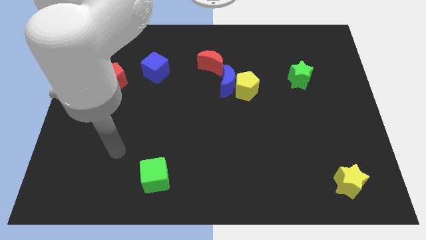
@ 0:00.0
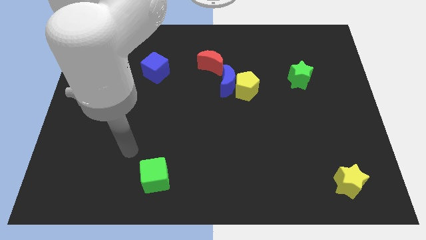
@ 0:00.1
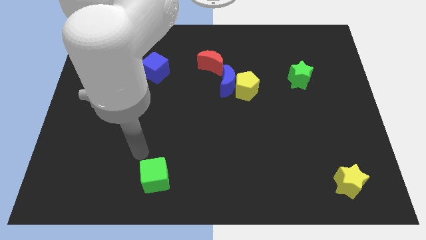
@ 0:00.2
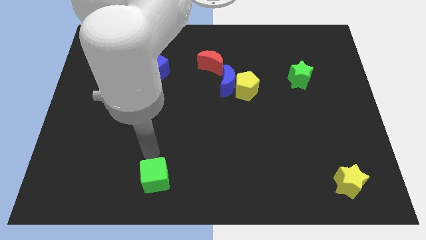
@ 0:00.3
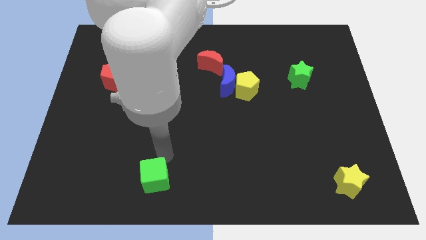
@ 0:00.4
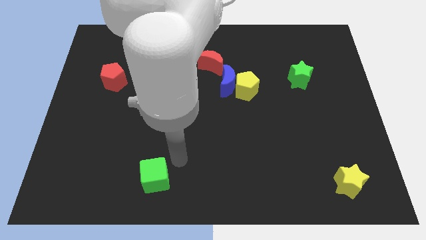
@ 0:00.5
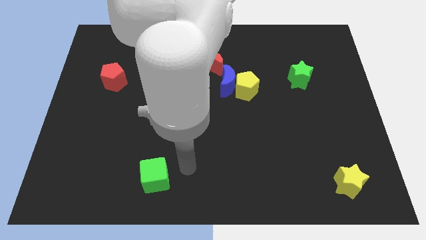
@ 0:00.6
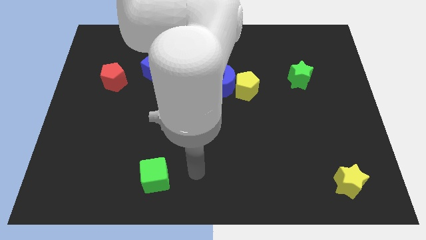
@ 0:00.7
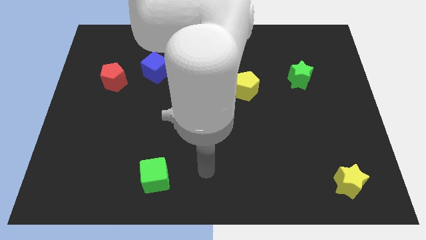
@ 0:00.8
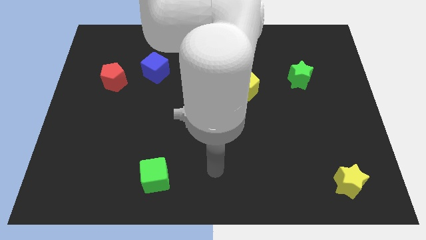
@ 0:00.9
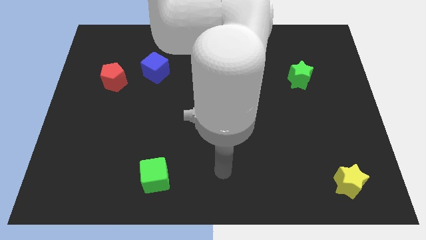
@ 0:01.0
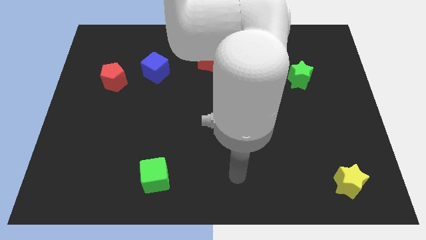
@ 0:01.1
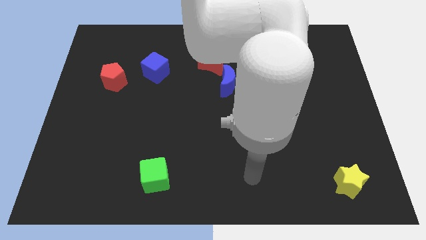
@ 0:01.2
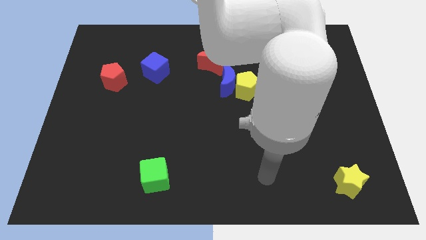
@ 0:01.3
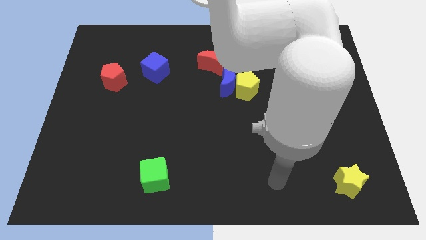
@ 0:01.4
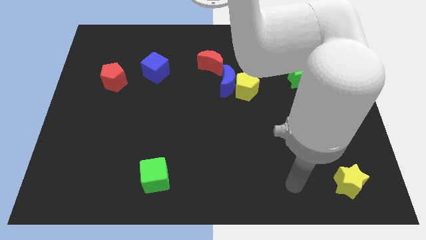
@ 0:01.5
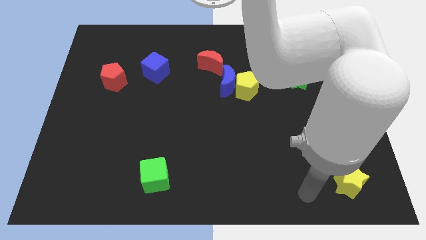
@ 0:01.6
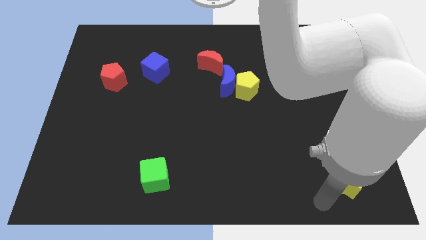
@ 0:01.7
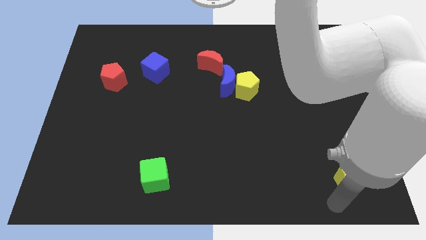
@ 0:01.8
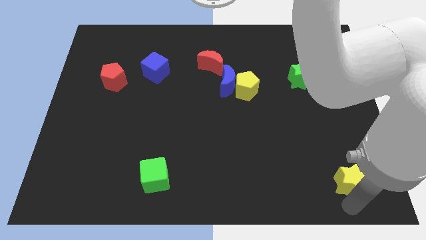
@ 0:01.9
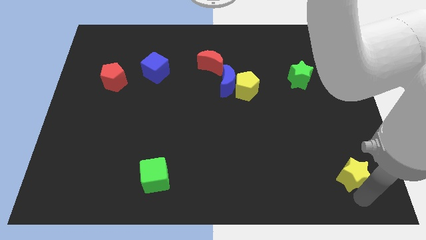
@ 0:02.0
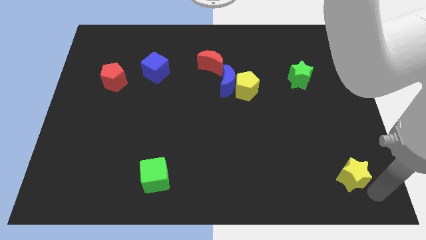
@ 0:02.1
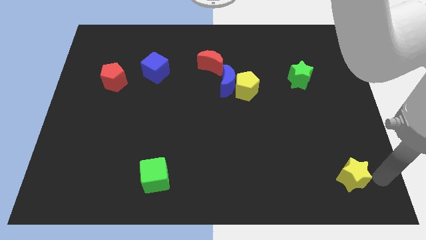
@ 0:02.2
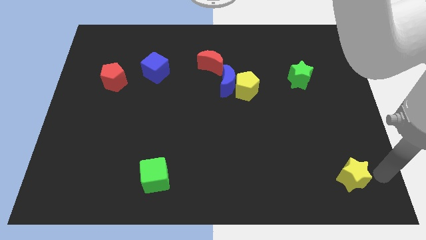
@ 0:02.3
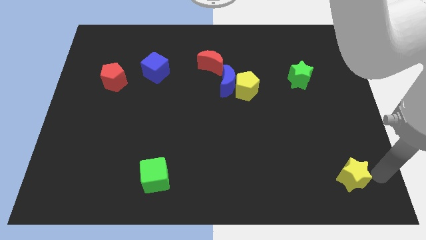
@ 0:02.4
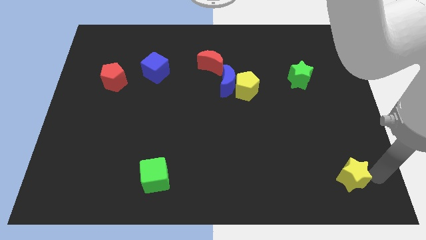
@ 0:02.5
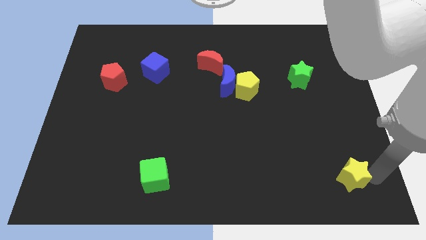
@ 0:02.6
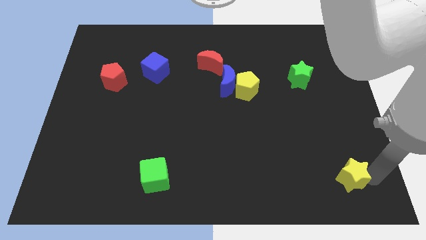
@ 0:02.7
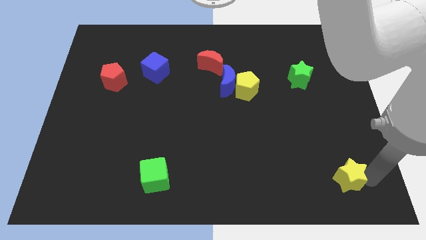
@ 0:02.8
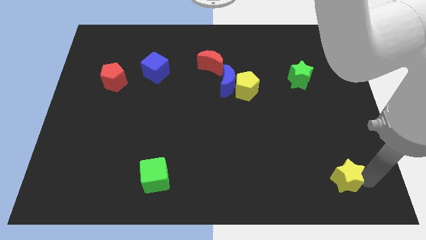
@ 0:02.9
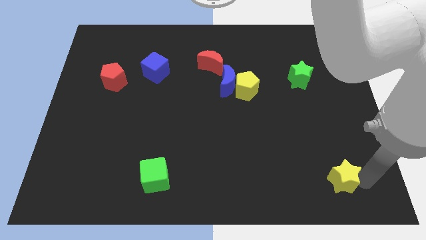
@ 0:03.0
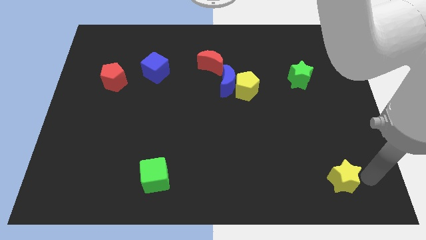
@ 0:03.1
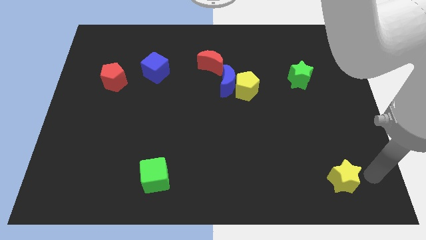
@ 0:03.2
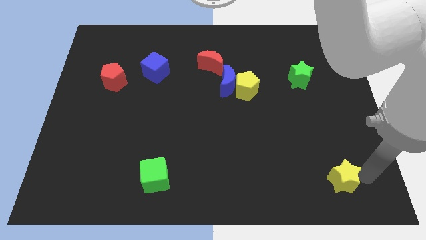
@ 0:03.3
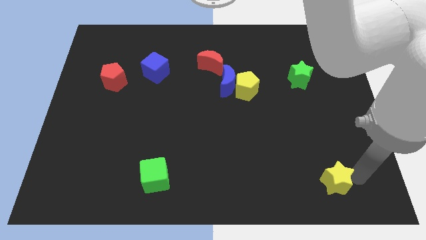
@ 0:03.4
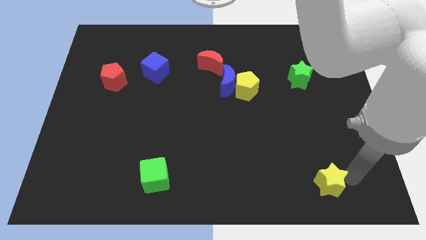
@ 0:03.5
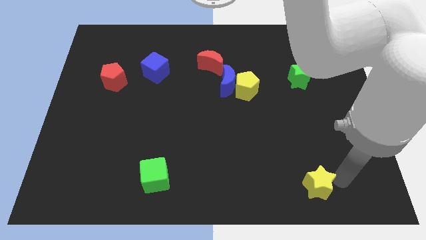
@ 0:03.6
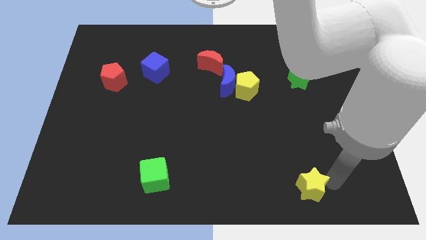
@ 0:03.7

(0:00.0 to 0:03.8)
slide the yellow star to the left a little bit

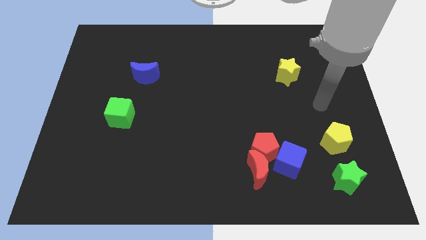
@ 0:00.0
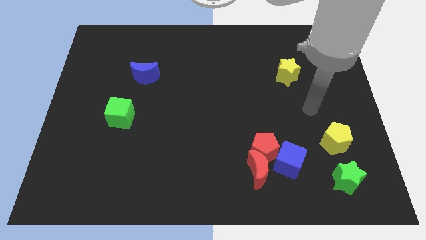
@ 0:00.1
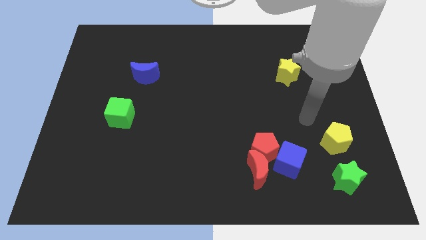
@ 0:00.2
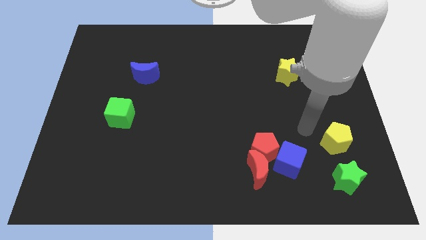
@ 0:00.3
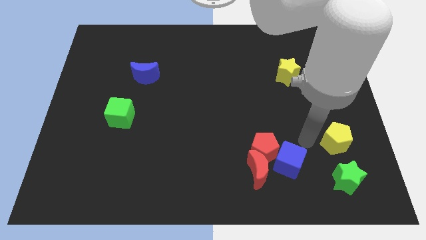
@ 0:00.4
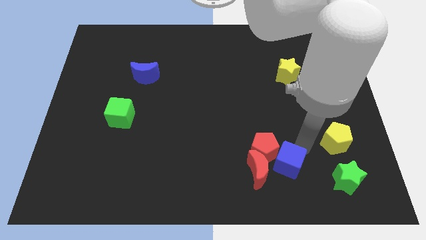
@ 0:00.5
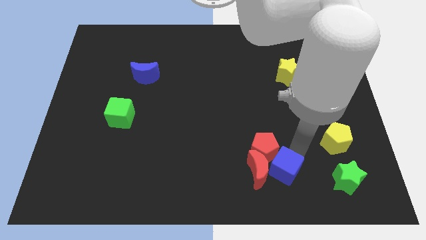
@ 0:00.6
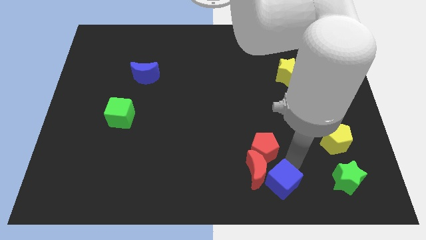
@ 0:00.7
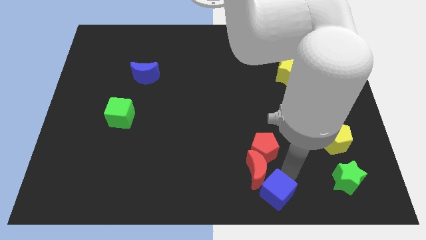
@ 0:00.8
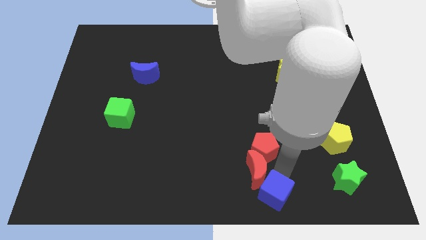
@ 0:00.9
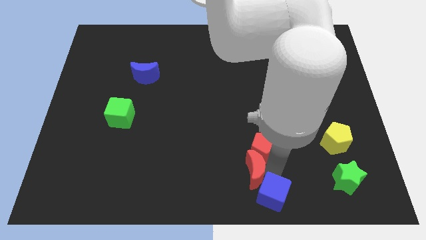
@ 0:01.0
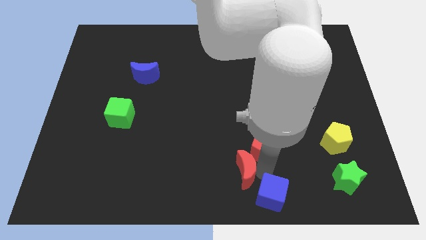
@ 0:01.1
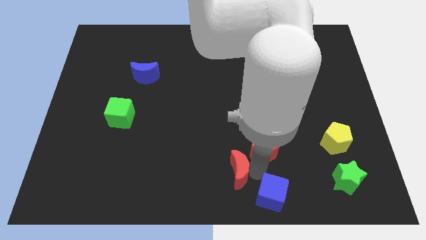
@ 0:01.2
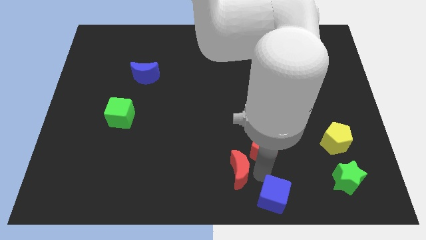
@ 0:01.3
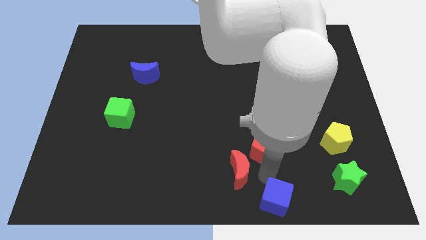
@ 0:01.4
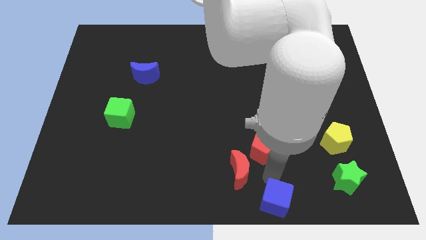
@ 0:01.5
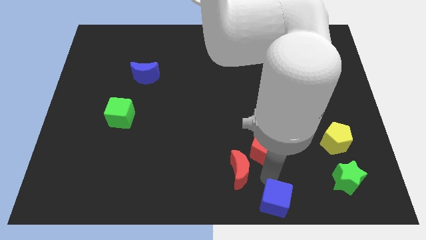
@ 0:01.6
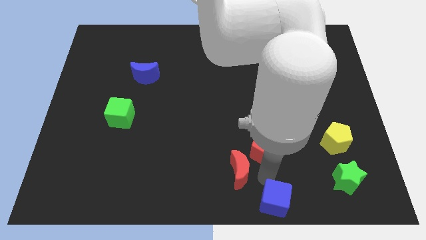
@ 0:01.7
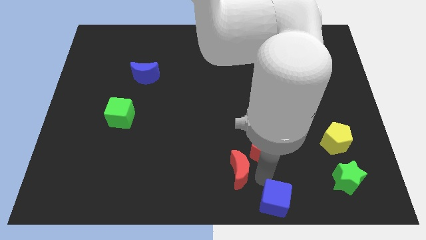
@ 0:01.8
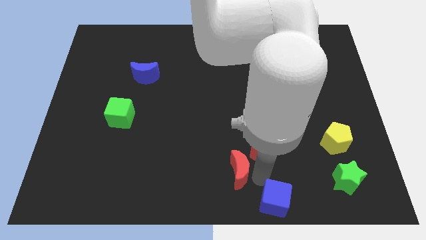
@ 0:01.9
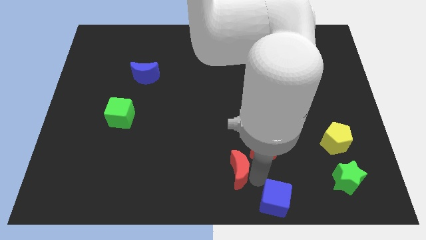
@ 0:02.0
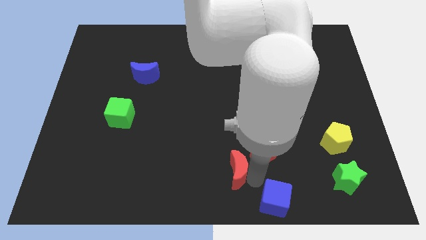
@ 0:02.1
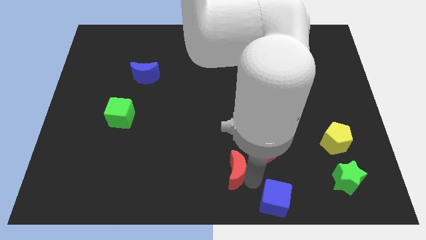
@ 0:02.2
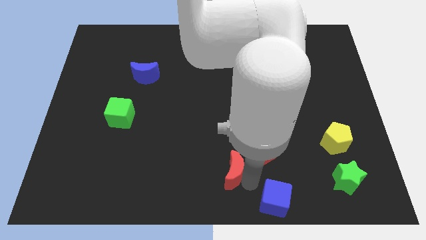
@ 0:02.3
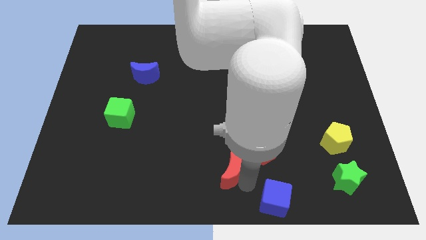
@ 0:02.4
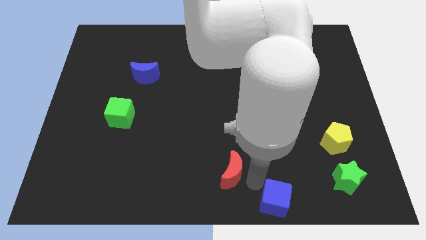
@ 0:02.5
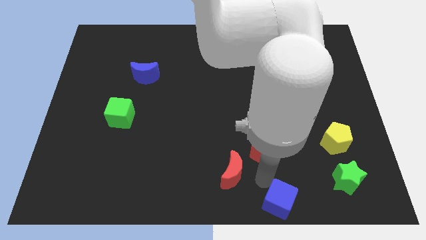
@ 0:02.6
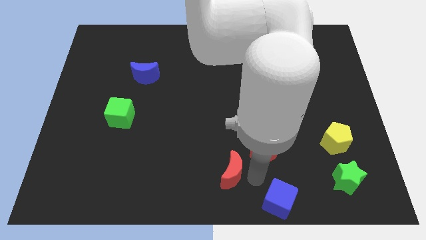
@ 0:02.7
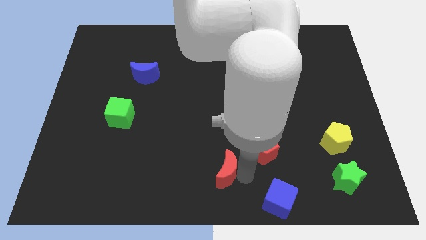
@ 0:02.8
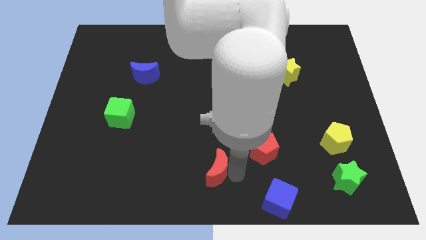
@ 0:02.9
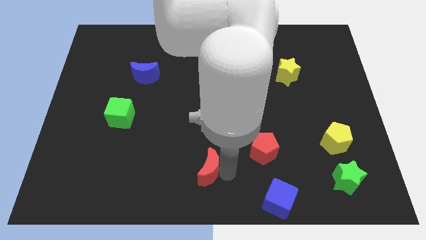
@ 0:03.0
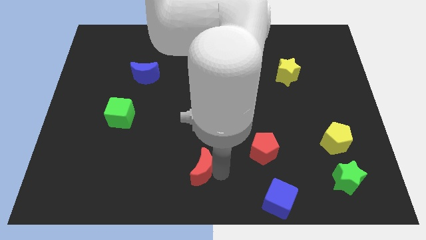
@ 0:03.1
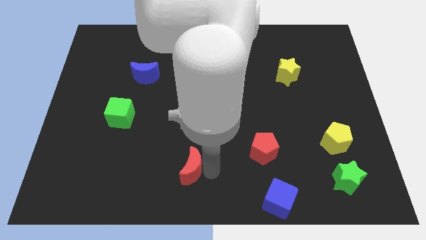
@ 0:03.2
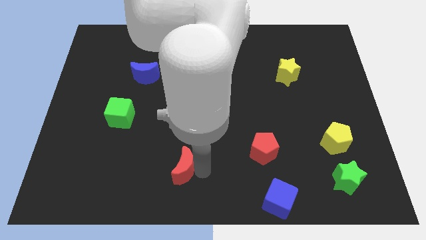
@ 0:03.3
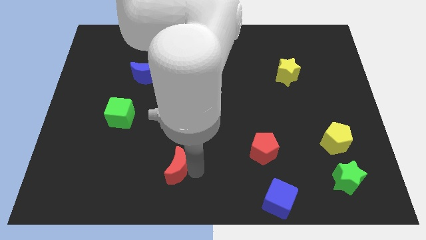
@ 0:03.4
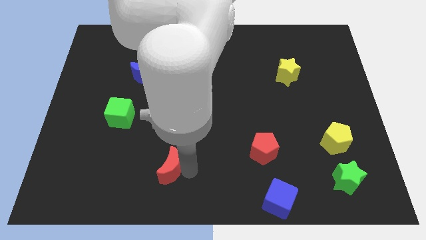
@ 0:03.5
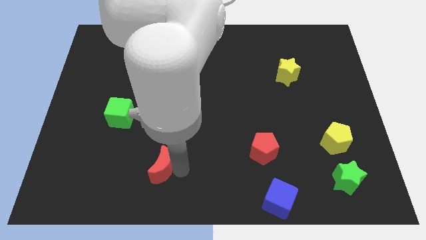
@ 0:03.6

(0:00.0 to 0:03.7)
push the red moon left

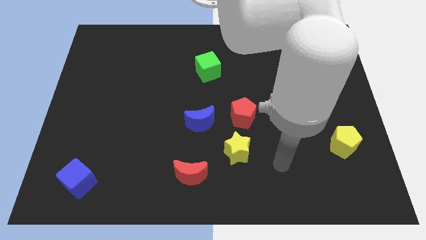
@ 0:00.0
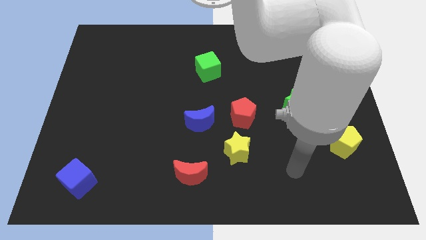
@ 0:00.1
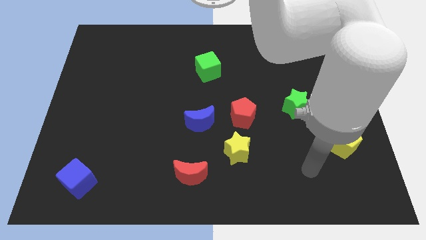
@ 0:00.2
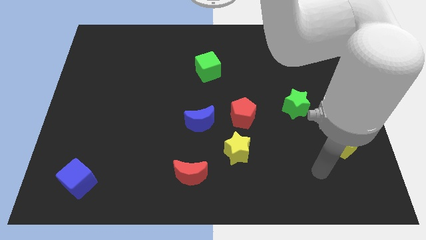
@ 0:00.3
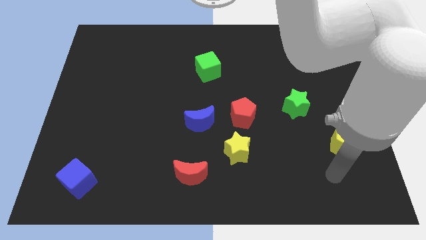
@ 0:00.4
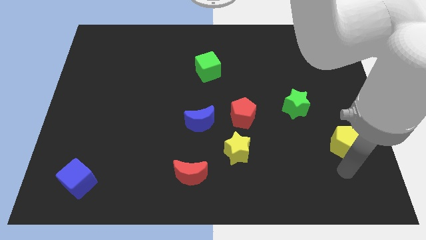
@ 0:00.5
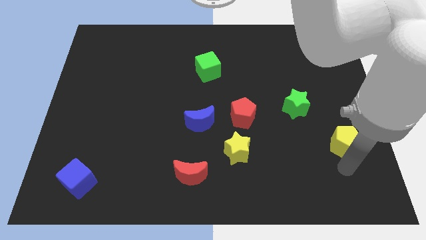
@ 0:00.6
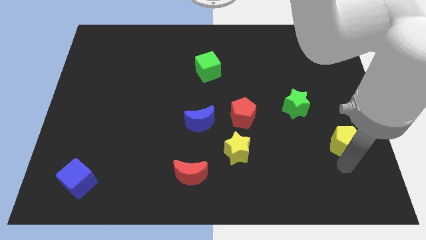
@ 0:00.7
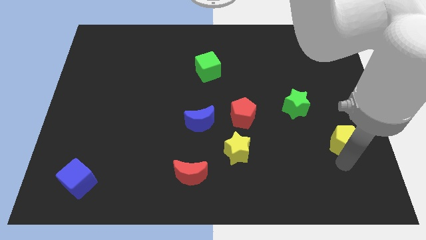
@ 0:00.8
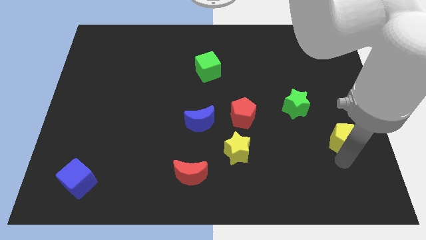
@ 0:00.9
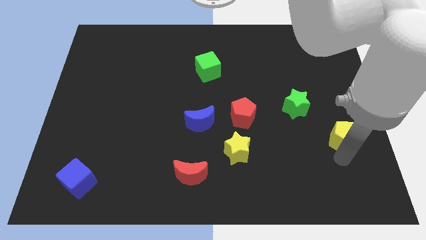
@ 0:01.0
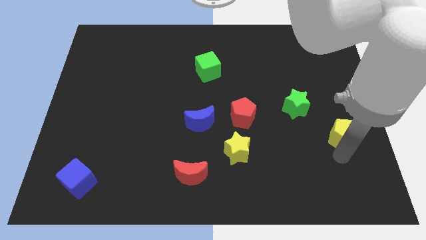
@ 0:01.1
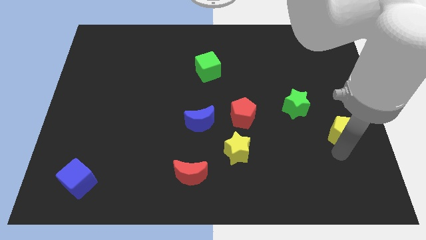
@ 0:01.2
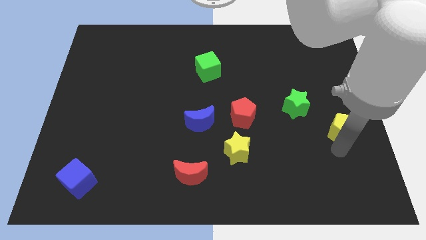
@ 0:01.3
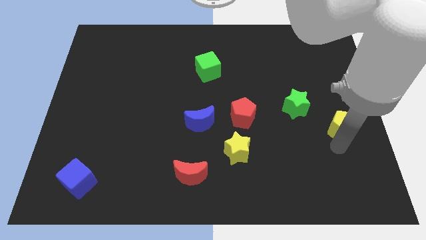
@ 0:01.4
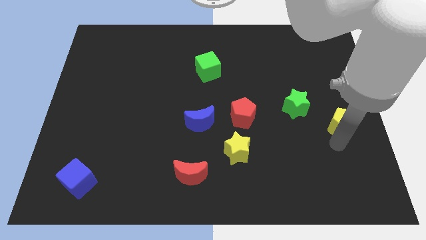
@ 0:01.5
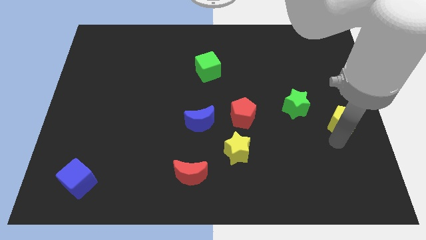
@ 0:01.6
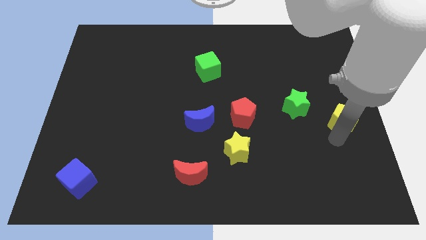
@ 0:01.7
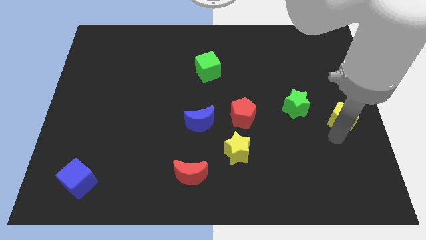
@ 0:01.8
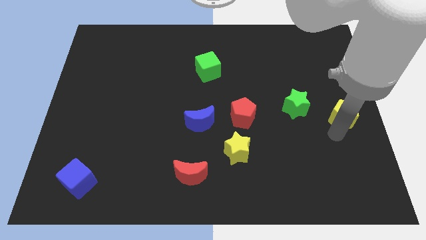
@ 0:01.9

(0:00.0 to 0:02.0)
slightly move the yellow pentagon up
